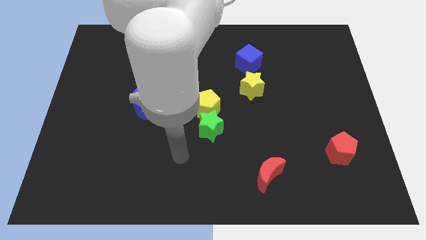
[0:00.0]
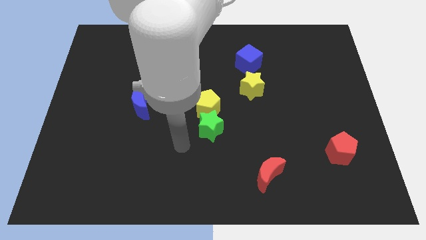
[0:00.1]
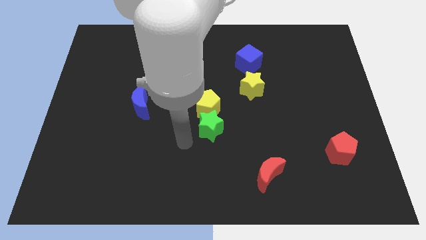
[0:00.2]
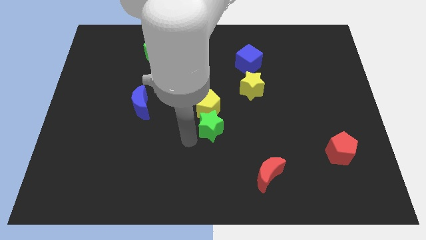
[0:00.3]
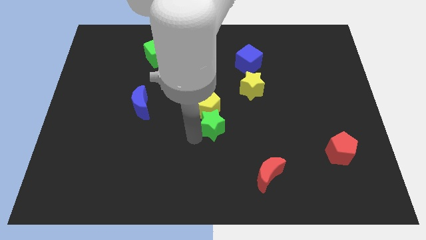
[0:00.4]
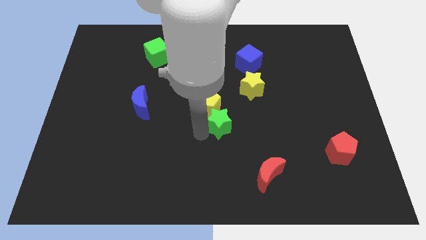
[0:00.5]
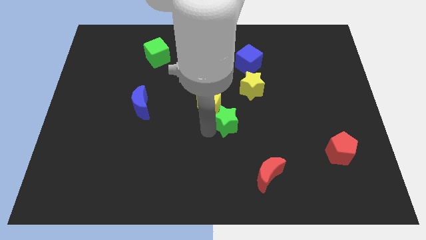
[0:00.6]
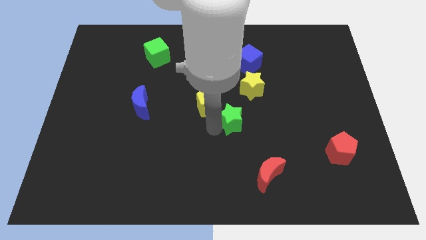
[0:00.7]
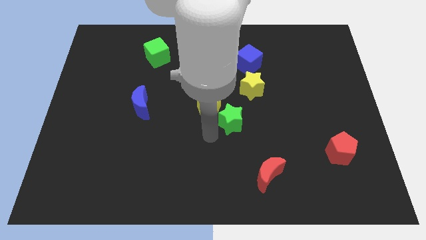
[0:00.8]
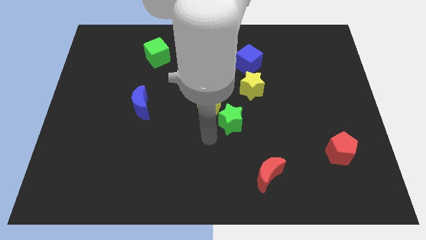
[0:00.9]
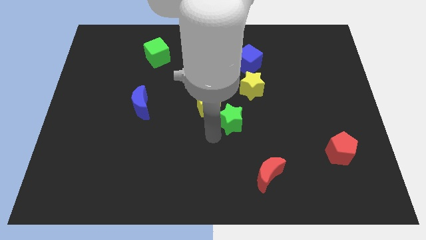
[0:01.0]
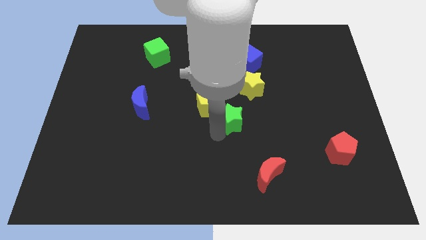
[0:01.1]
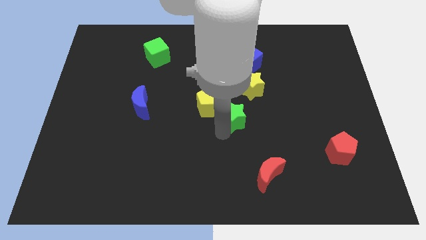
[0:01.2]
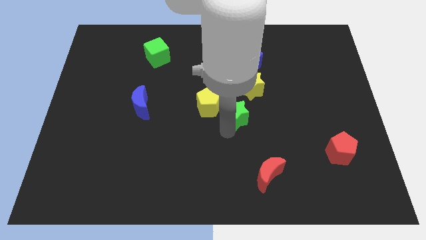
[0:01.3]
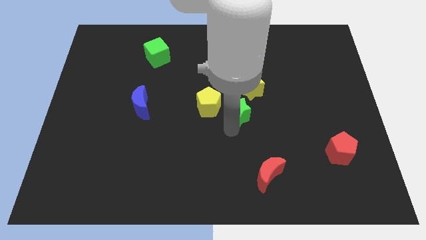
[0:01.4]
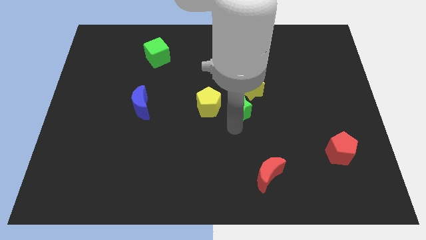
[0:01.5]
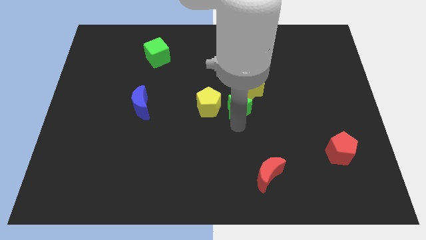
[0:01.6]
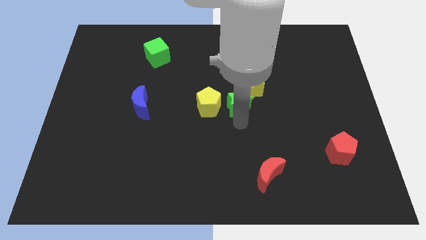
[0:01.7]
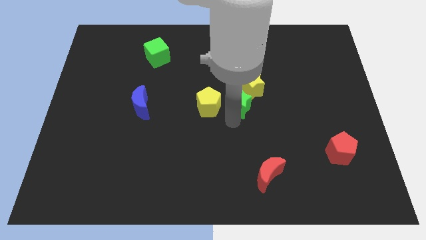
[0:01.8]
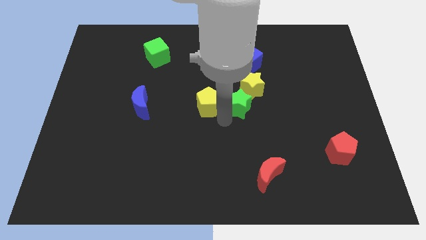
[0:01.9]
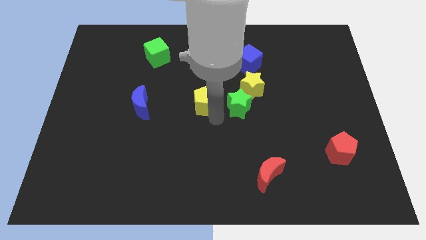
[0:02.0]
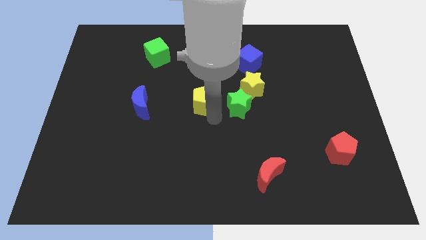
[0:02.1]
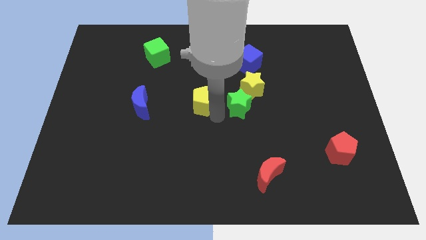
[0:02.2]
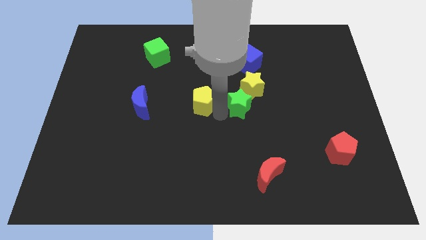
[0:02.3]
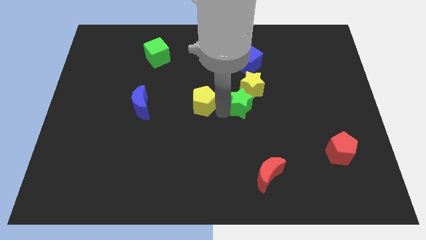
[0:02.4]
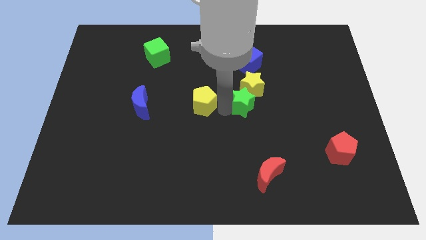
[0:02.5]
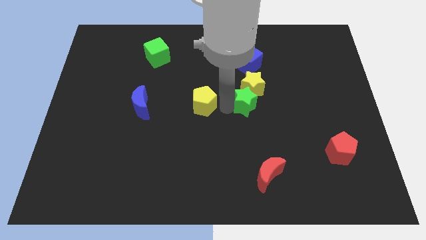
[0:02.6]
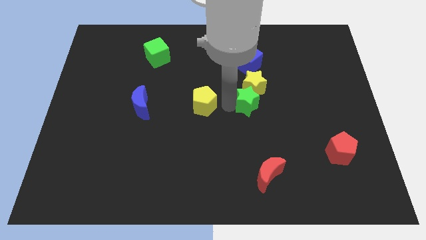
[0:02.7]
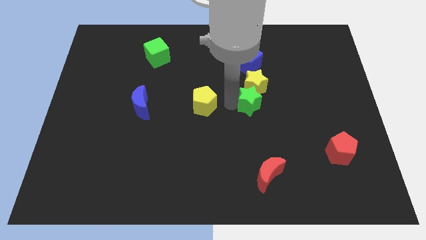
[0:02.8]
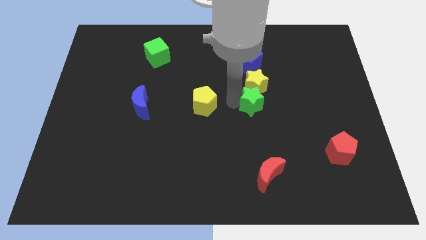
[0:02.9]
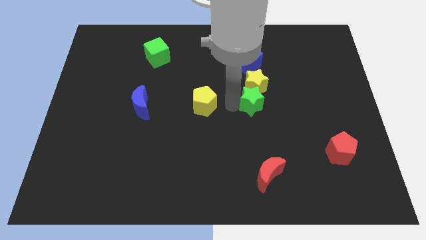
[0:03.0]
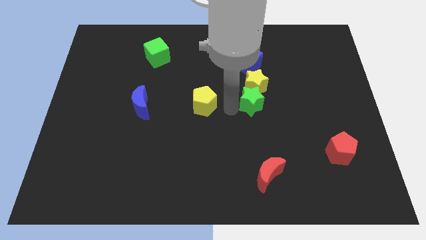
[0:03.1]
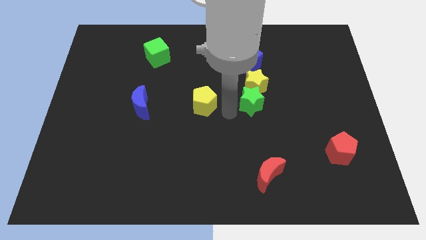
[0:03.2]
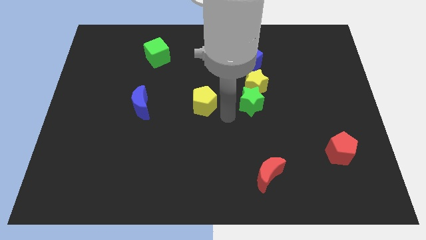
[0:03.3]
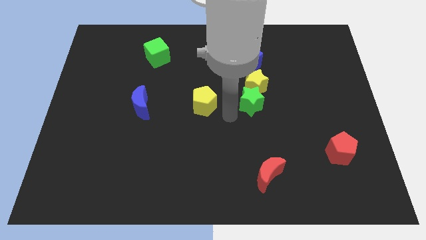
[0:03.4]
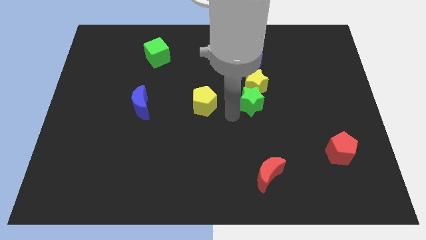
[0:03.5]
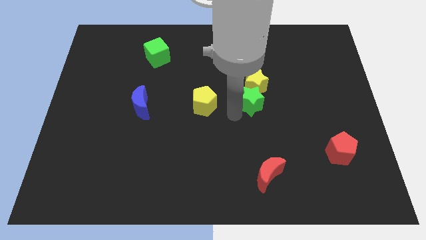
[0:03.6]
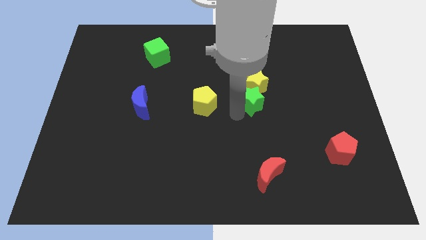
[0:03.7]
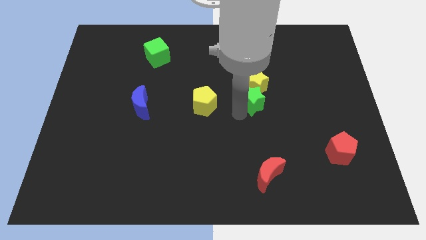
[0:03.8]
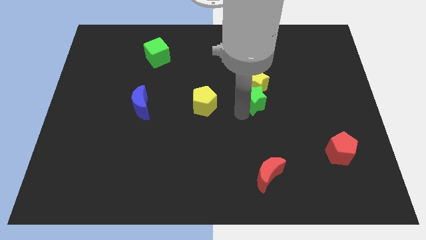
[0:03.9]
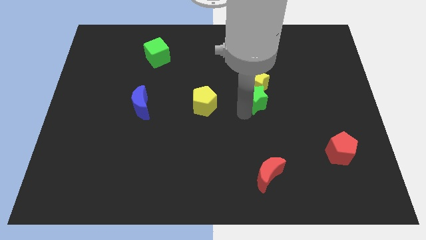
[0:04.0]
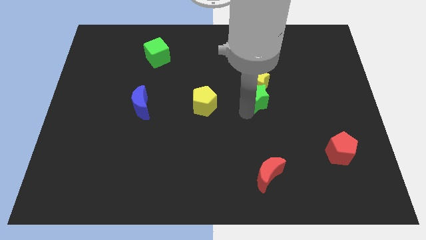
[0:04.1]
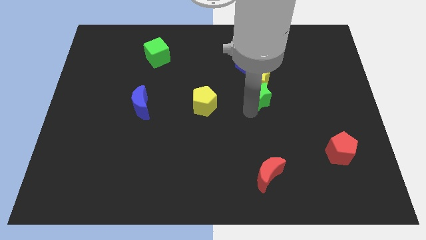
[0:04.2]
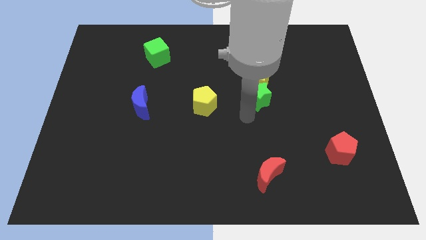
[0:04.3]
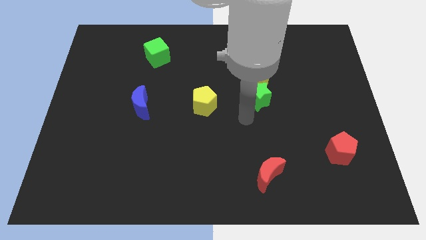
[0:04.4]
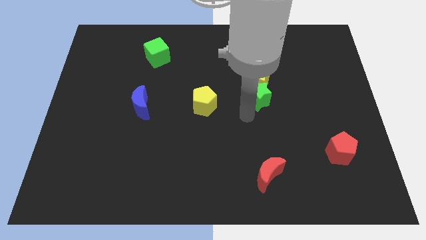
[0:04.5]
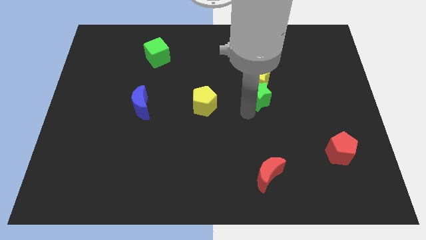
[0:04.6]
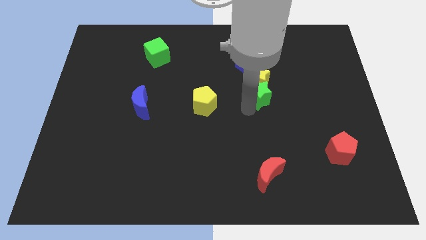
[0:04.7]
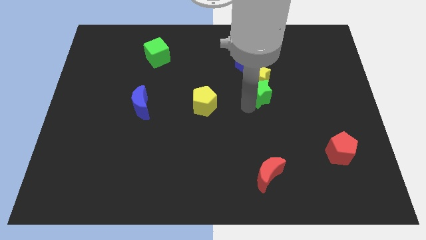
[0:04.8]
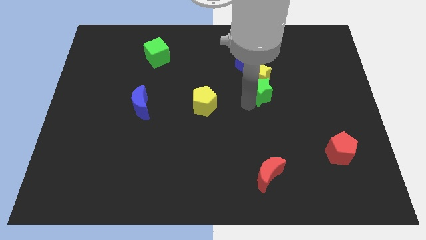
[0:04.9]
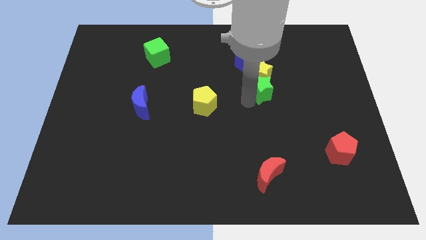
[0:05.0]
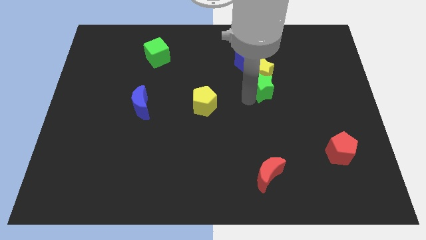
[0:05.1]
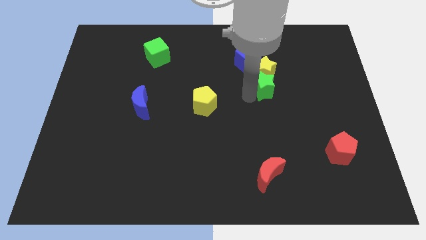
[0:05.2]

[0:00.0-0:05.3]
move the green star diagonally down and to the right of the blue cube

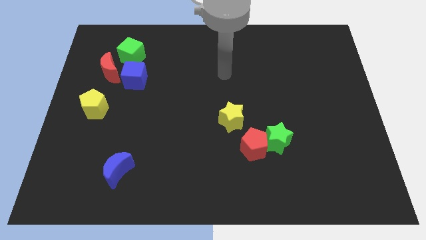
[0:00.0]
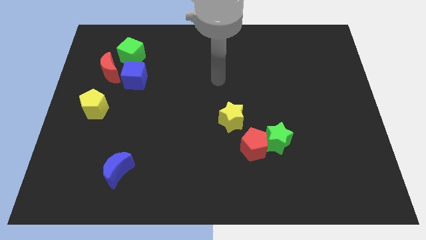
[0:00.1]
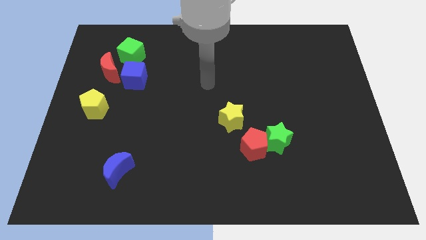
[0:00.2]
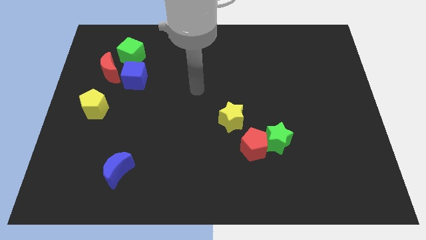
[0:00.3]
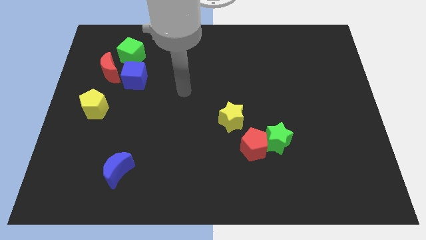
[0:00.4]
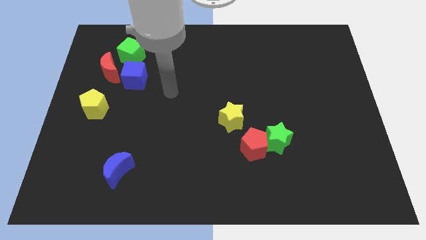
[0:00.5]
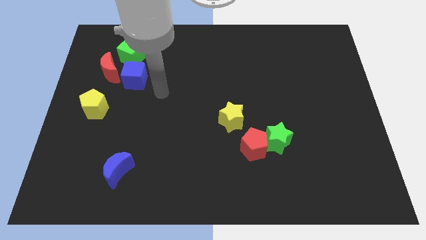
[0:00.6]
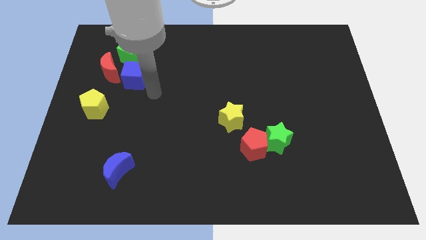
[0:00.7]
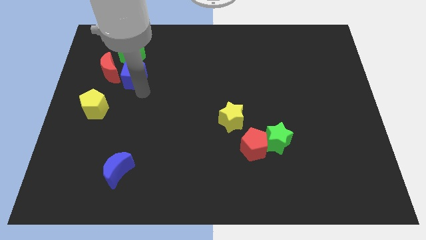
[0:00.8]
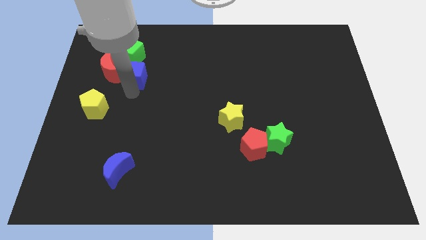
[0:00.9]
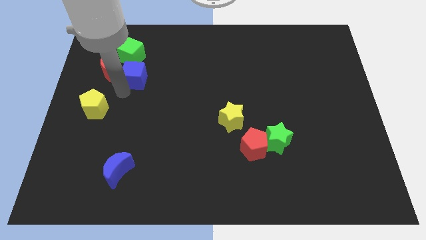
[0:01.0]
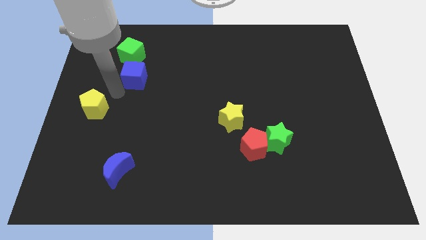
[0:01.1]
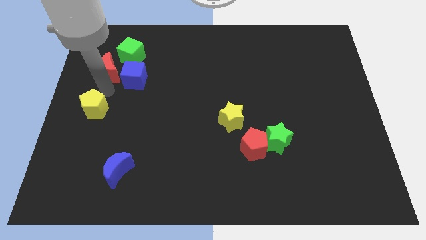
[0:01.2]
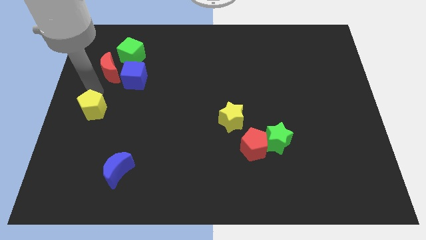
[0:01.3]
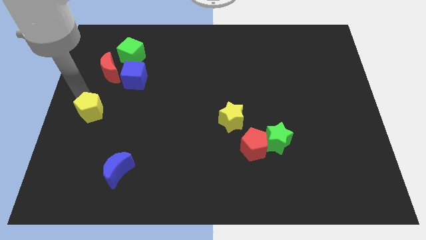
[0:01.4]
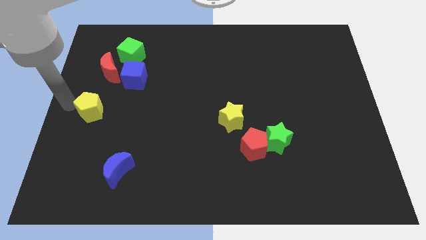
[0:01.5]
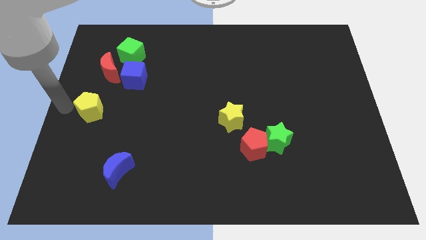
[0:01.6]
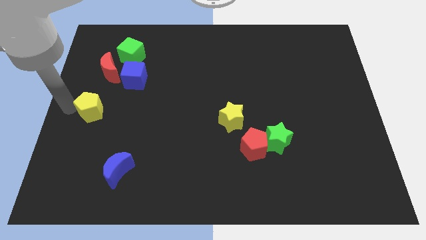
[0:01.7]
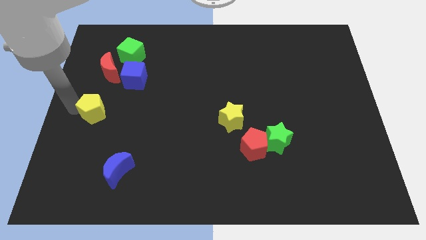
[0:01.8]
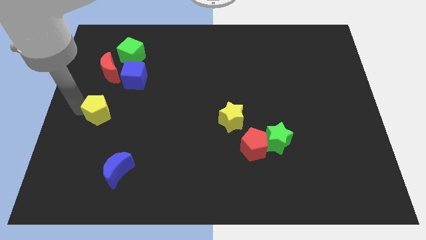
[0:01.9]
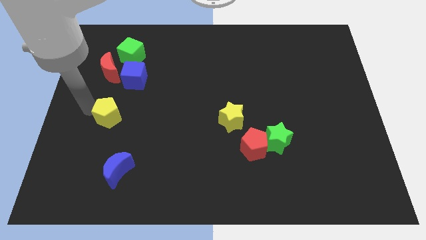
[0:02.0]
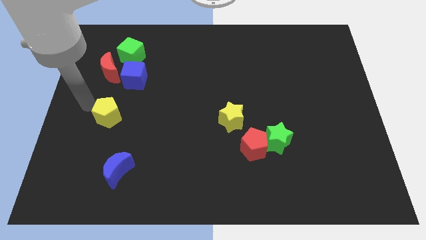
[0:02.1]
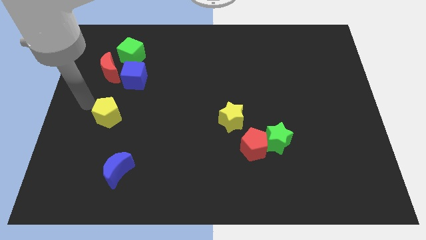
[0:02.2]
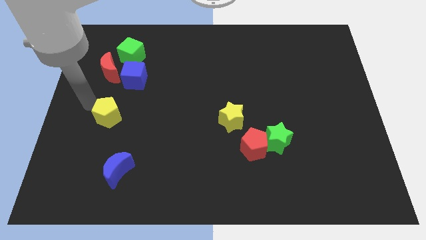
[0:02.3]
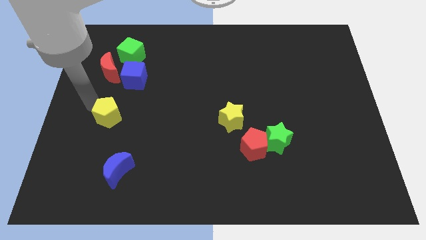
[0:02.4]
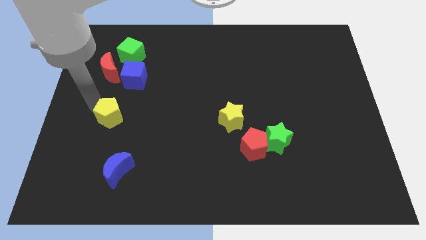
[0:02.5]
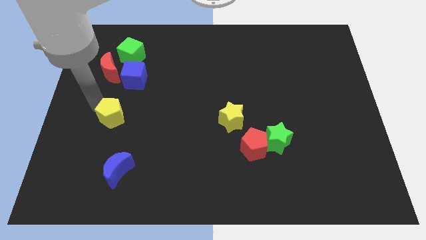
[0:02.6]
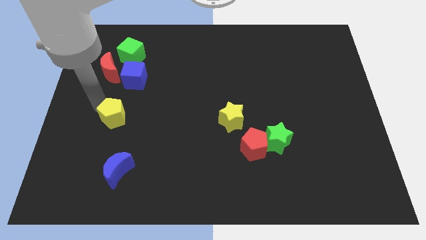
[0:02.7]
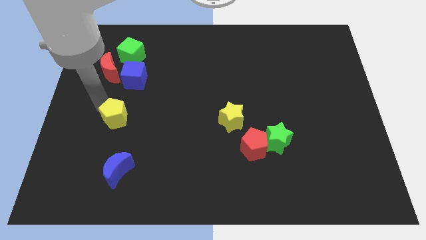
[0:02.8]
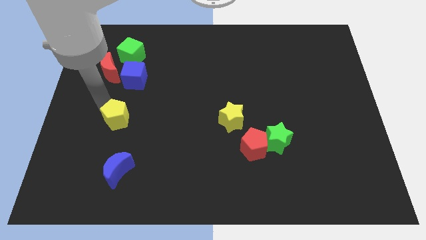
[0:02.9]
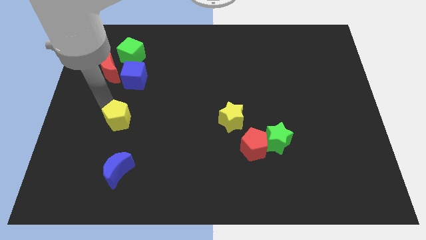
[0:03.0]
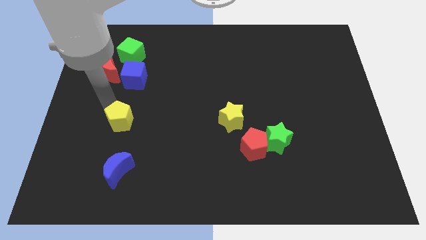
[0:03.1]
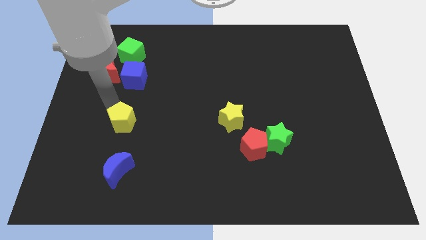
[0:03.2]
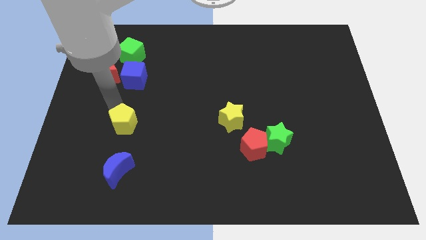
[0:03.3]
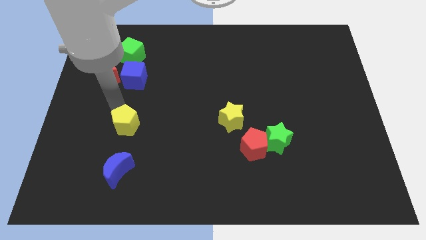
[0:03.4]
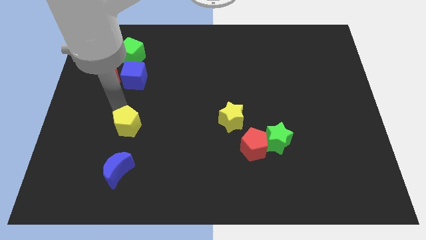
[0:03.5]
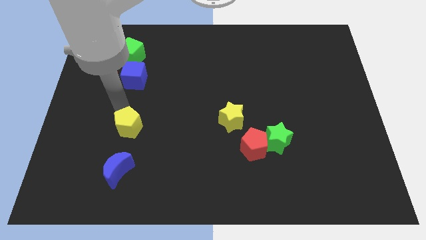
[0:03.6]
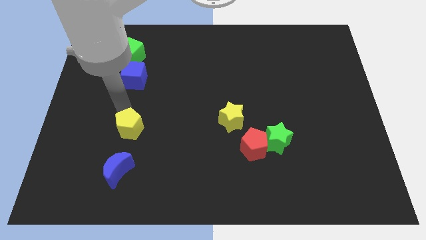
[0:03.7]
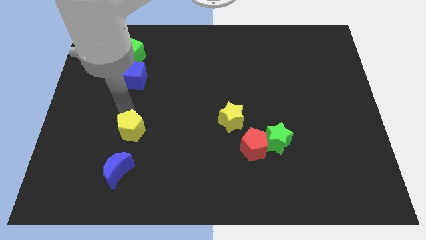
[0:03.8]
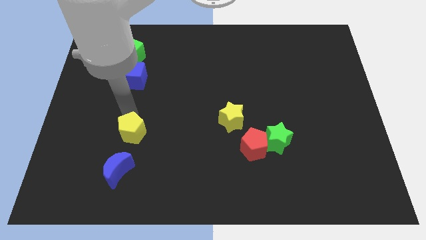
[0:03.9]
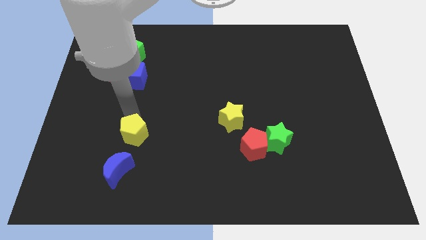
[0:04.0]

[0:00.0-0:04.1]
put the yellow pentagon to the top right side of the blue moon
